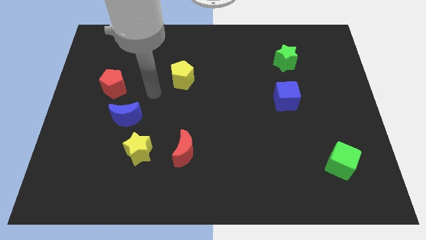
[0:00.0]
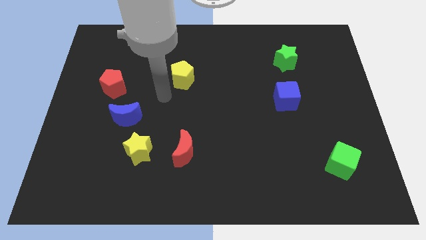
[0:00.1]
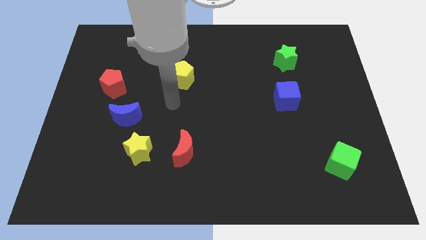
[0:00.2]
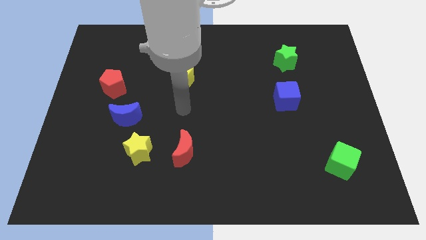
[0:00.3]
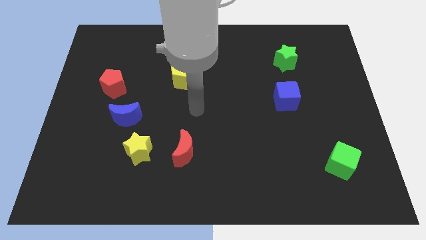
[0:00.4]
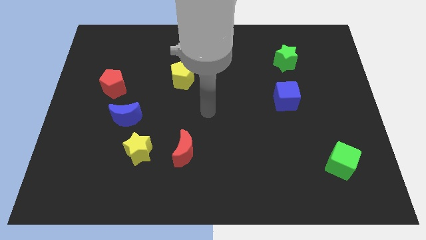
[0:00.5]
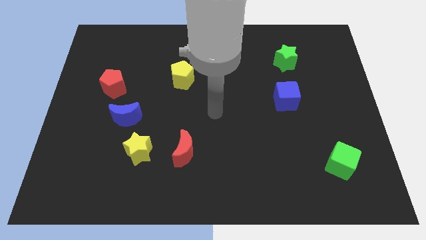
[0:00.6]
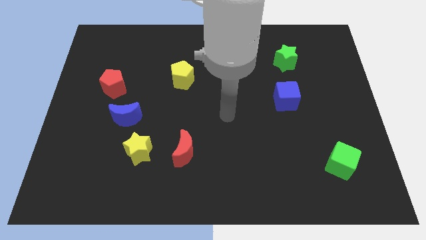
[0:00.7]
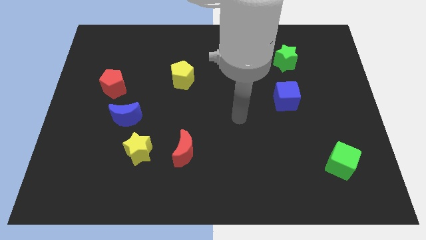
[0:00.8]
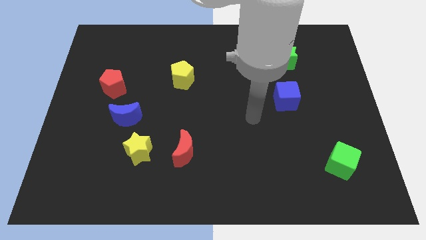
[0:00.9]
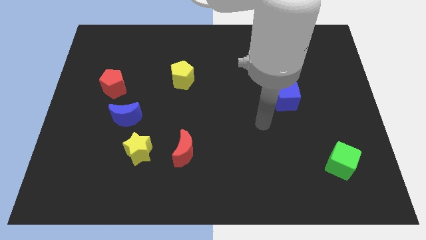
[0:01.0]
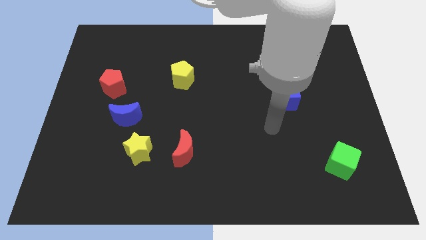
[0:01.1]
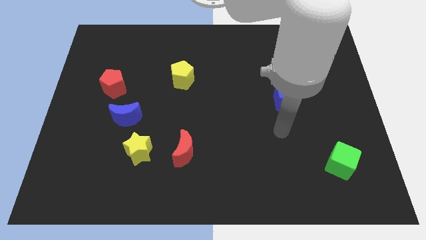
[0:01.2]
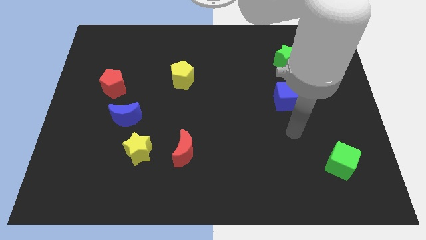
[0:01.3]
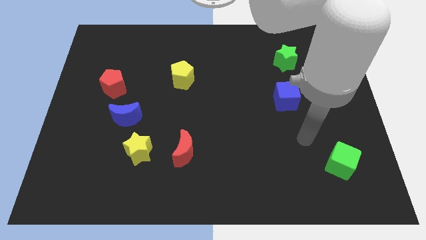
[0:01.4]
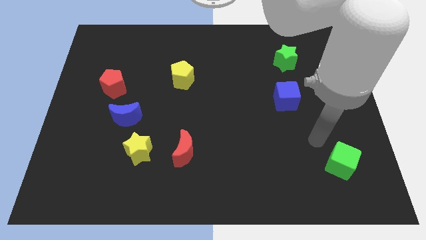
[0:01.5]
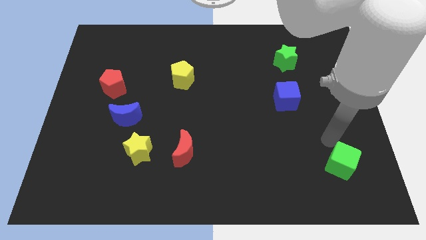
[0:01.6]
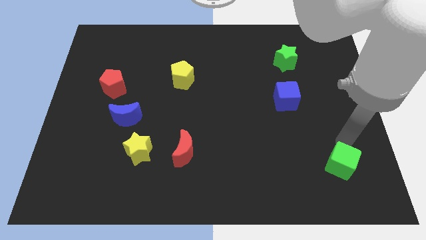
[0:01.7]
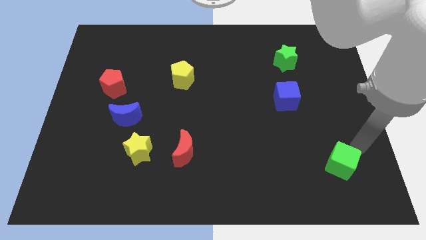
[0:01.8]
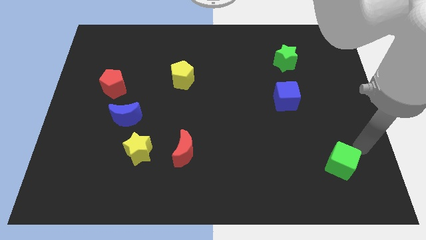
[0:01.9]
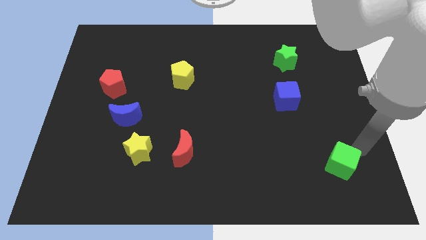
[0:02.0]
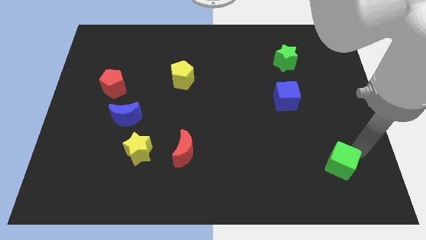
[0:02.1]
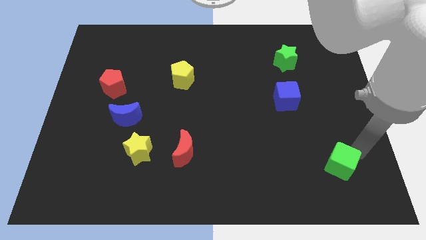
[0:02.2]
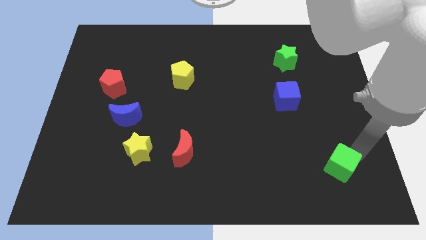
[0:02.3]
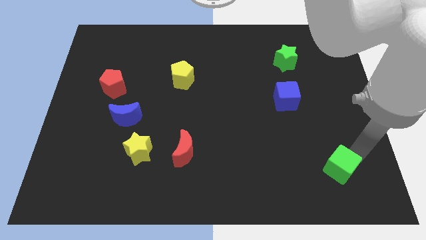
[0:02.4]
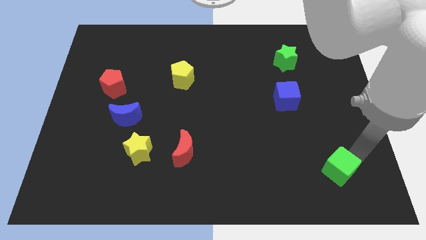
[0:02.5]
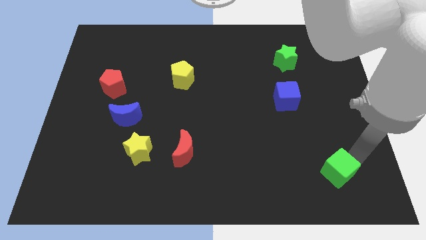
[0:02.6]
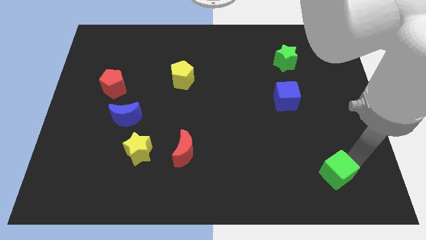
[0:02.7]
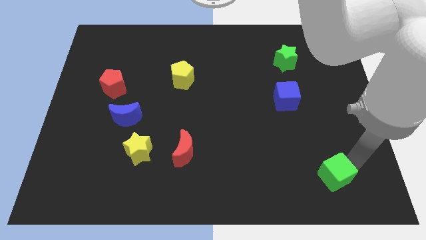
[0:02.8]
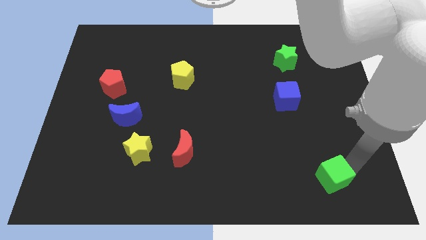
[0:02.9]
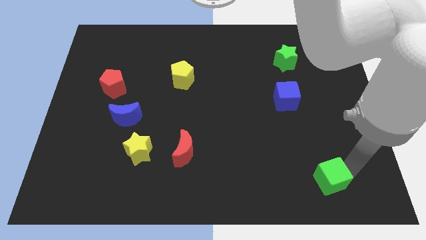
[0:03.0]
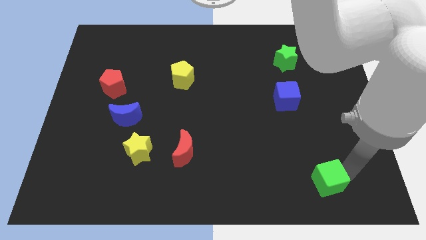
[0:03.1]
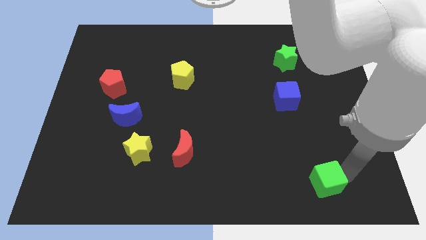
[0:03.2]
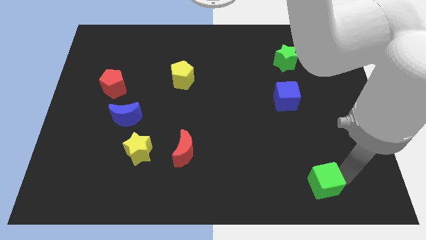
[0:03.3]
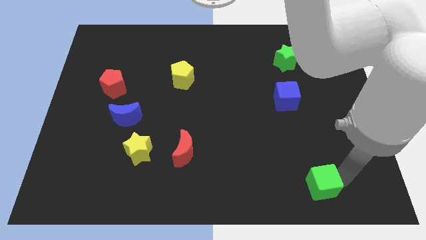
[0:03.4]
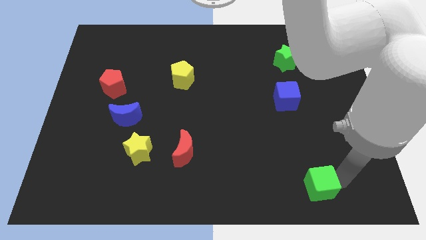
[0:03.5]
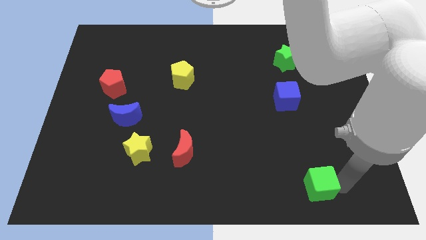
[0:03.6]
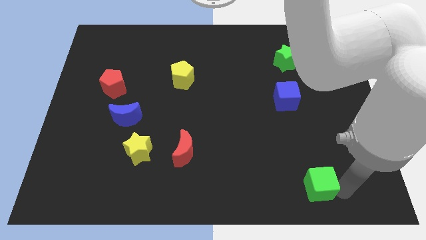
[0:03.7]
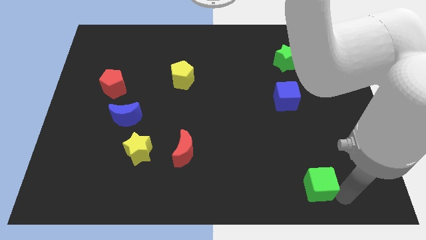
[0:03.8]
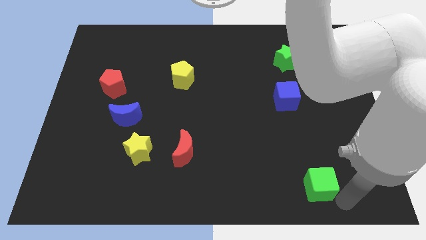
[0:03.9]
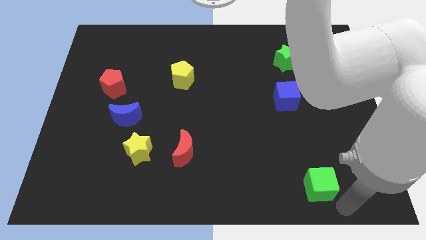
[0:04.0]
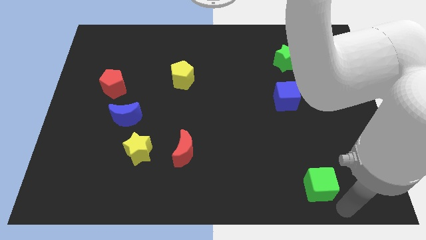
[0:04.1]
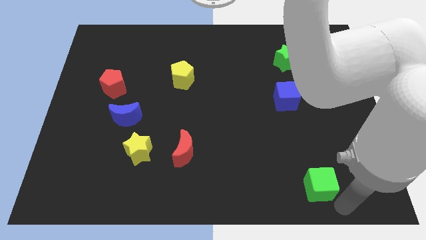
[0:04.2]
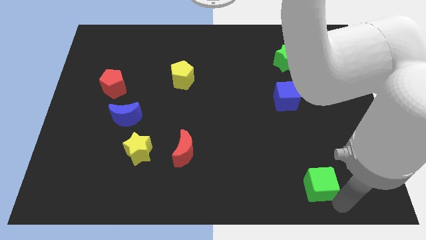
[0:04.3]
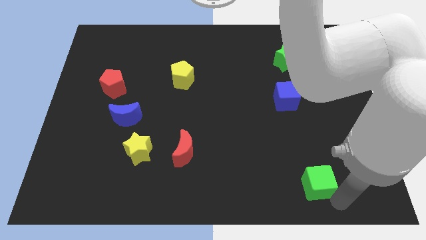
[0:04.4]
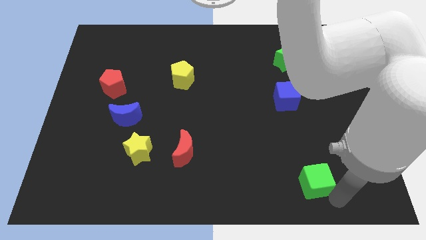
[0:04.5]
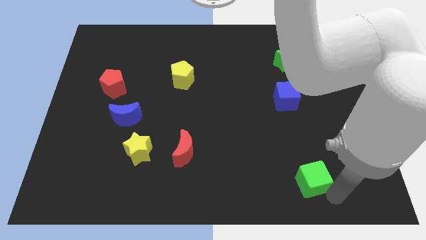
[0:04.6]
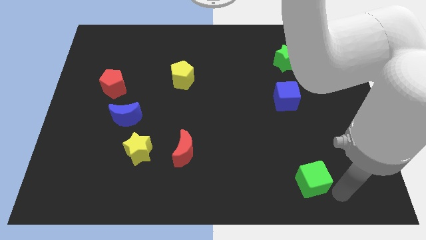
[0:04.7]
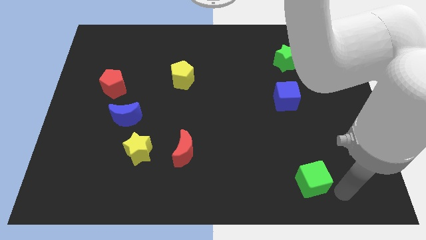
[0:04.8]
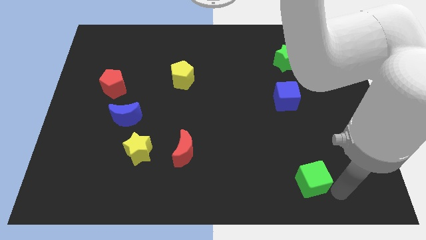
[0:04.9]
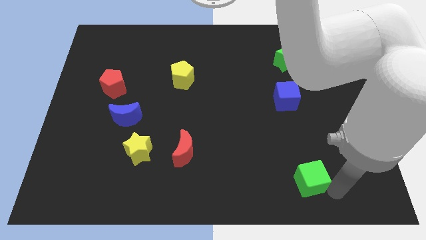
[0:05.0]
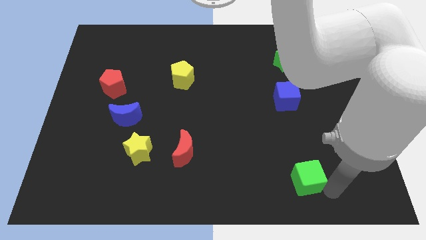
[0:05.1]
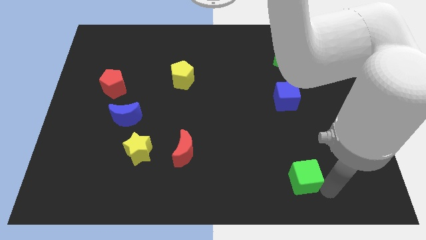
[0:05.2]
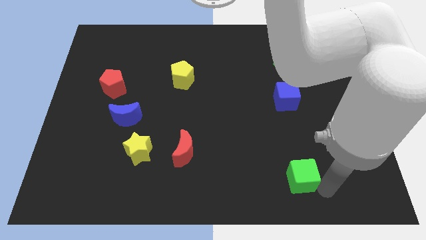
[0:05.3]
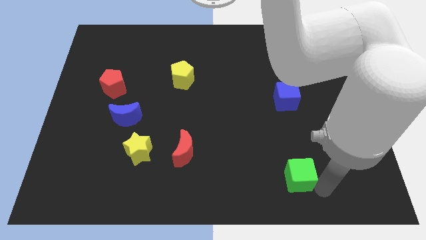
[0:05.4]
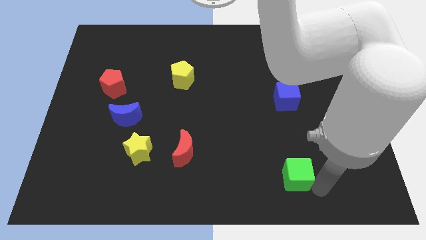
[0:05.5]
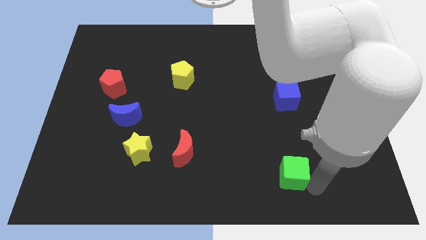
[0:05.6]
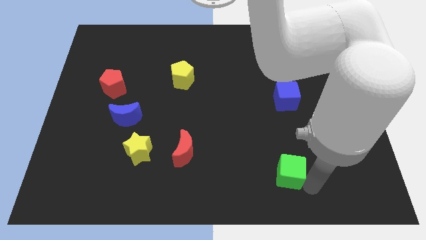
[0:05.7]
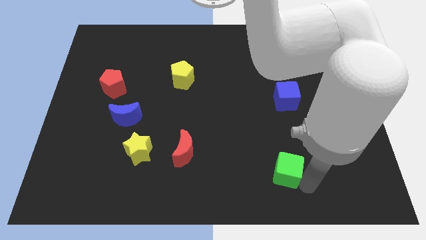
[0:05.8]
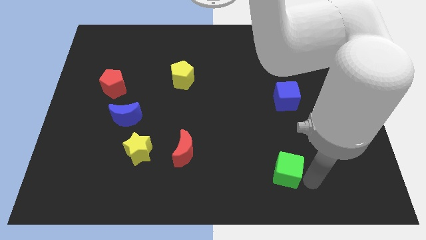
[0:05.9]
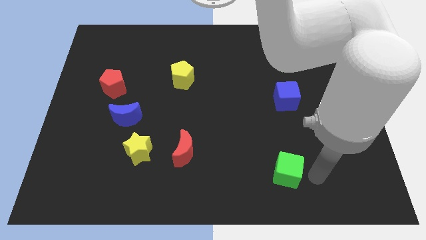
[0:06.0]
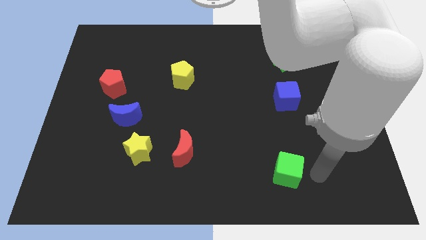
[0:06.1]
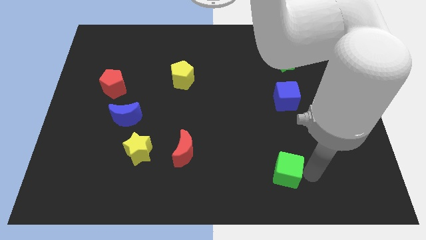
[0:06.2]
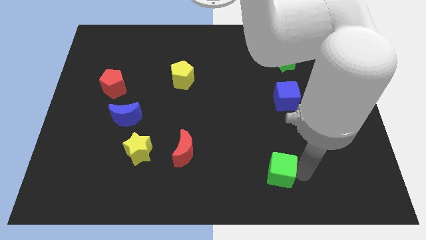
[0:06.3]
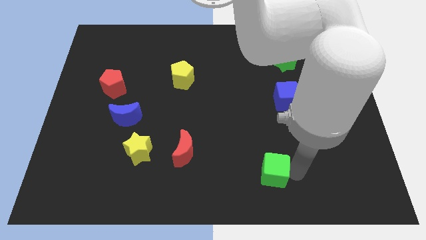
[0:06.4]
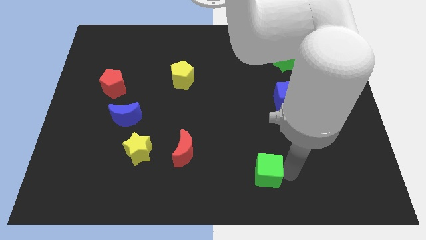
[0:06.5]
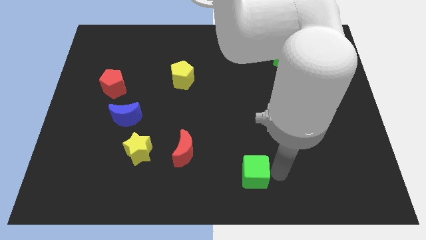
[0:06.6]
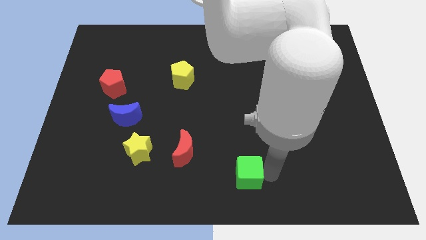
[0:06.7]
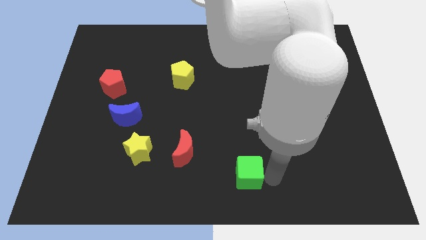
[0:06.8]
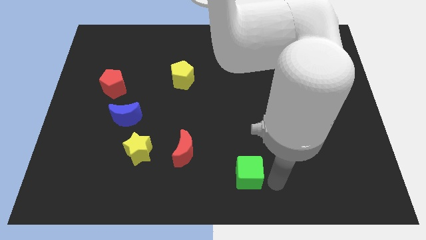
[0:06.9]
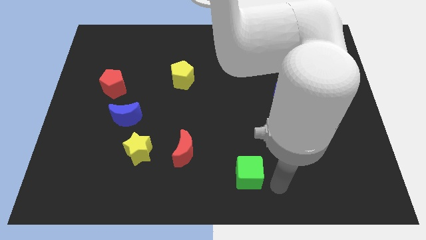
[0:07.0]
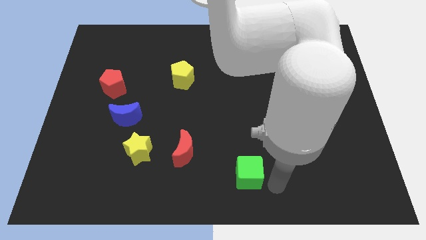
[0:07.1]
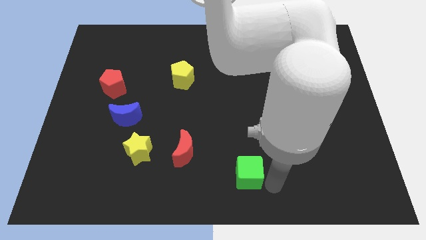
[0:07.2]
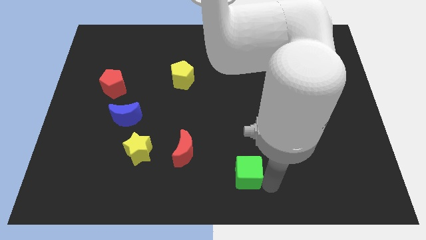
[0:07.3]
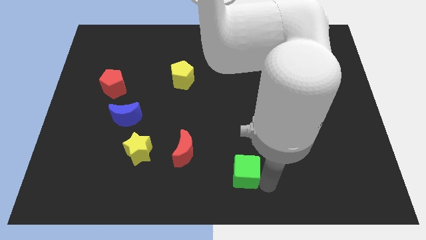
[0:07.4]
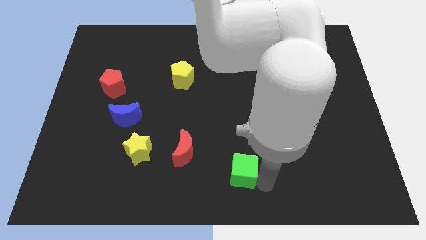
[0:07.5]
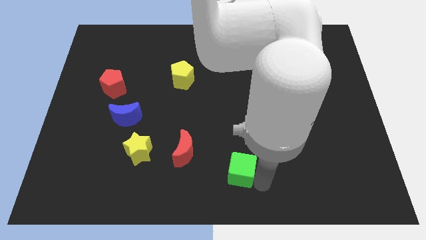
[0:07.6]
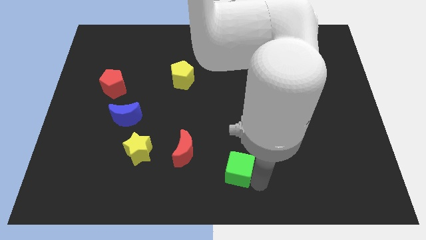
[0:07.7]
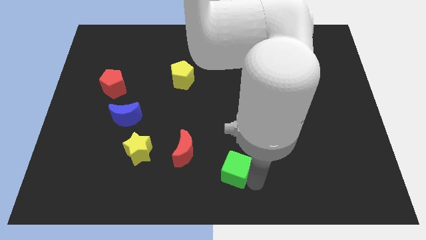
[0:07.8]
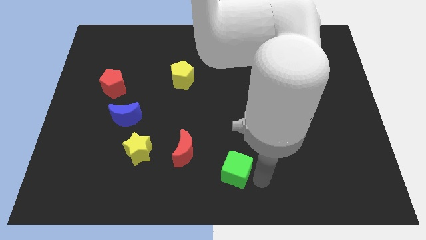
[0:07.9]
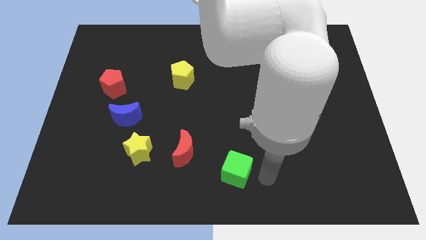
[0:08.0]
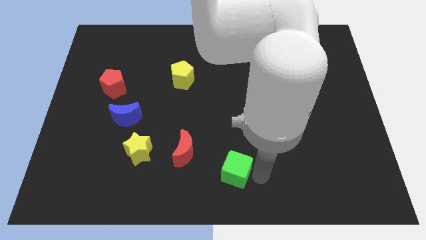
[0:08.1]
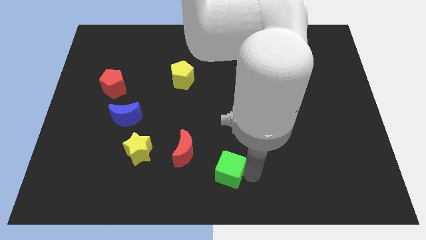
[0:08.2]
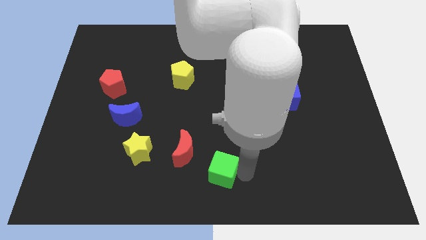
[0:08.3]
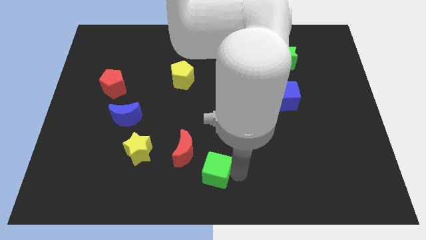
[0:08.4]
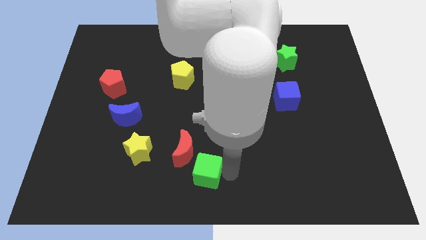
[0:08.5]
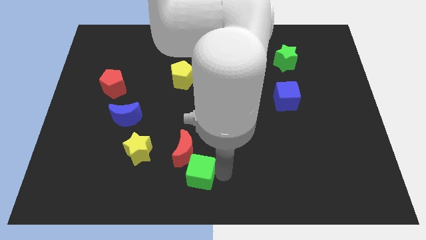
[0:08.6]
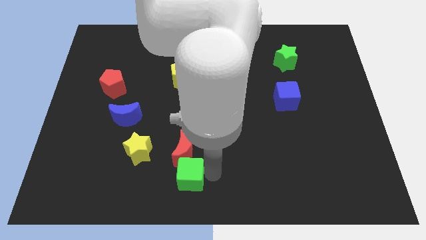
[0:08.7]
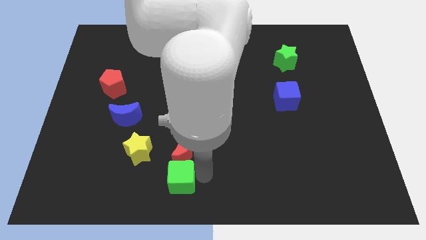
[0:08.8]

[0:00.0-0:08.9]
put the green cube to the bottom right of the yellow star
